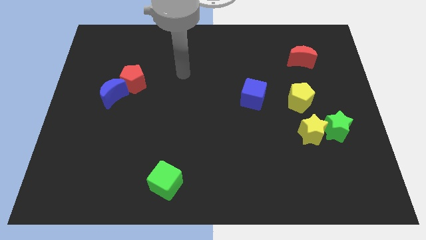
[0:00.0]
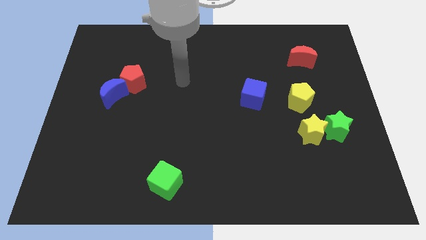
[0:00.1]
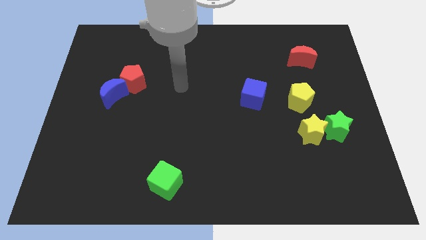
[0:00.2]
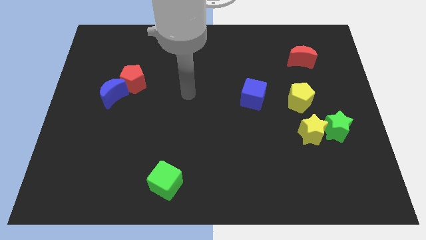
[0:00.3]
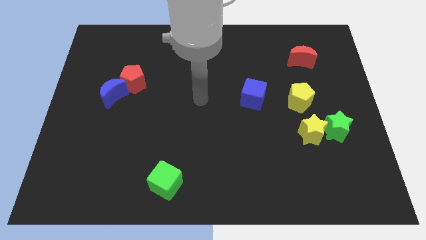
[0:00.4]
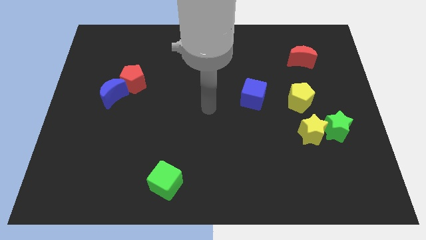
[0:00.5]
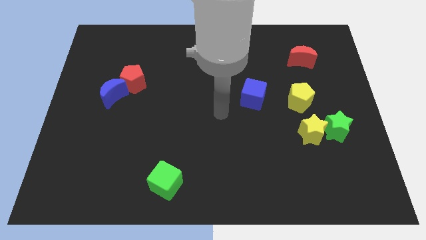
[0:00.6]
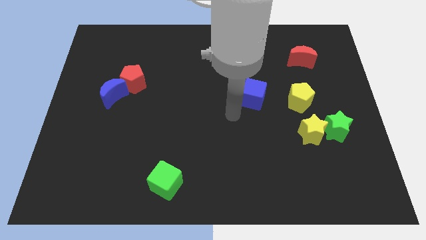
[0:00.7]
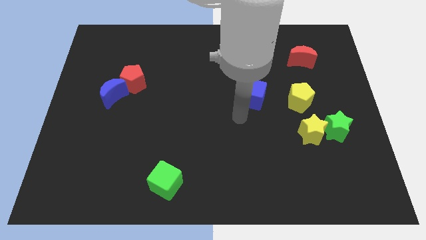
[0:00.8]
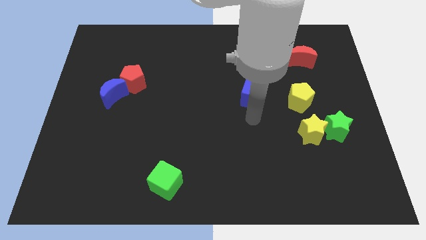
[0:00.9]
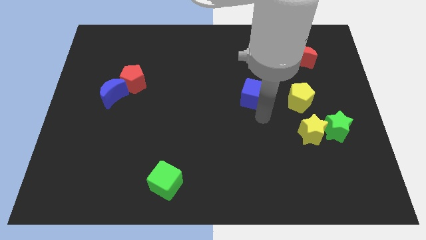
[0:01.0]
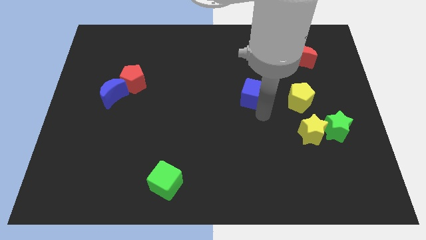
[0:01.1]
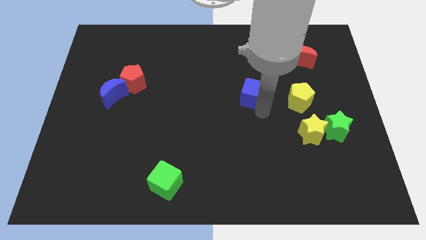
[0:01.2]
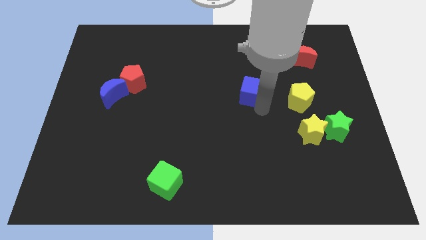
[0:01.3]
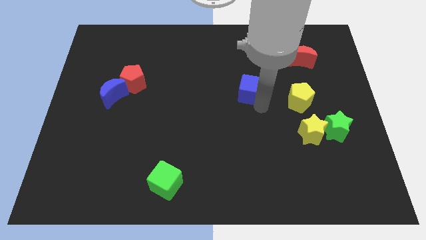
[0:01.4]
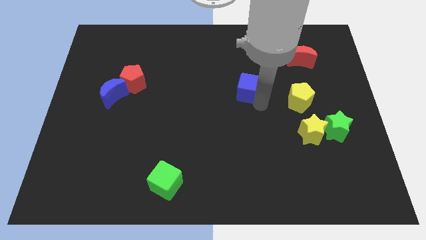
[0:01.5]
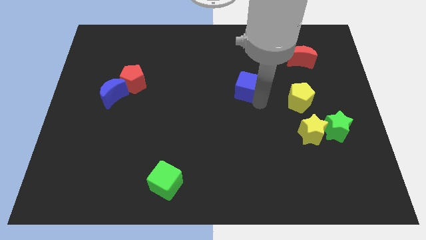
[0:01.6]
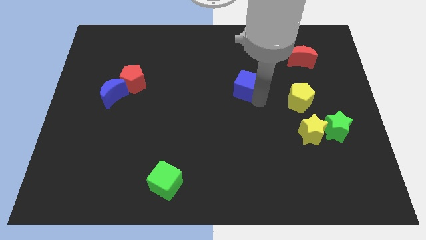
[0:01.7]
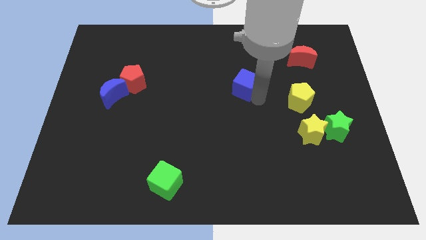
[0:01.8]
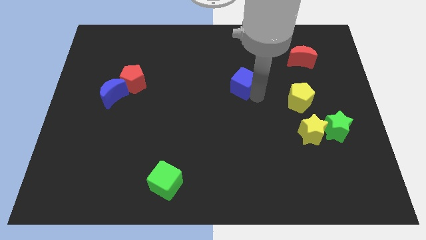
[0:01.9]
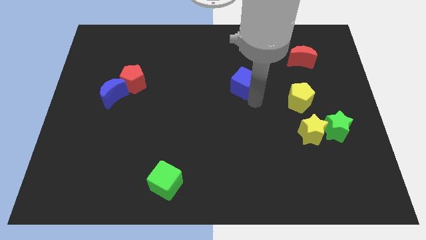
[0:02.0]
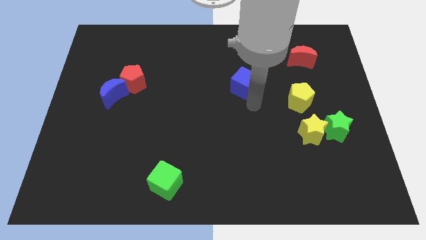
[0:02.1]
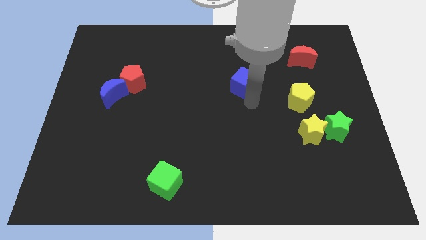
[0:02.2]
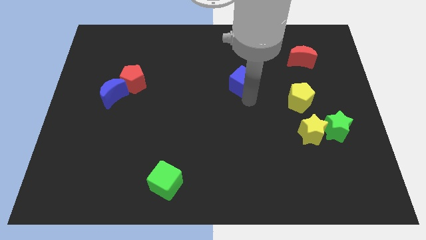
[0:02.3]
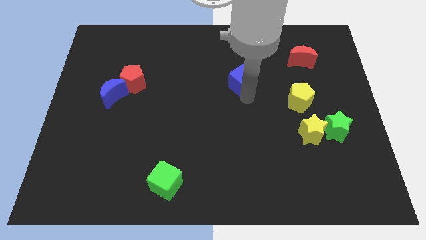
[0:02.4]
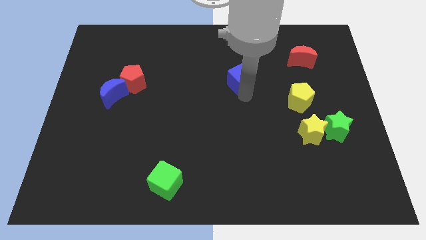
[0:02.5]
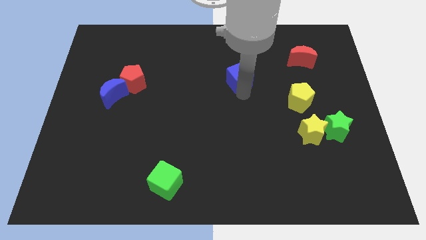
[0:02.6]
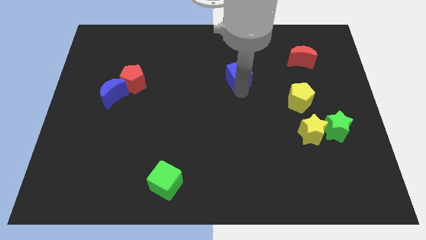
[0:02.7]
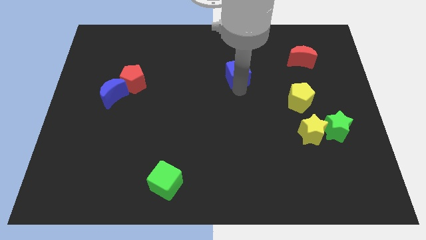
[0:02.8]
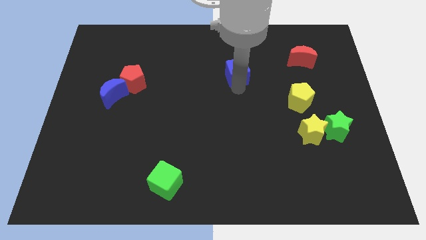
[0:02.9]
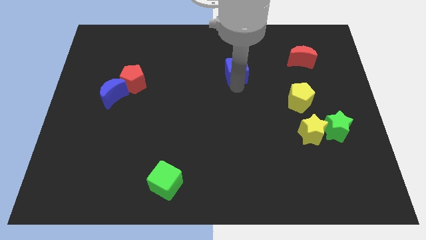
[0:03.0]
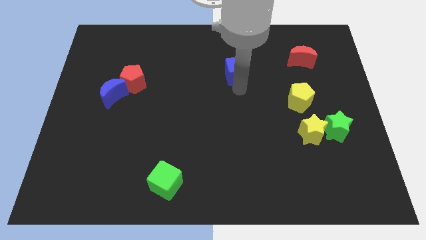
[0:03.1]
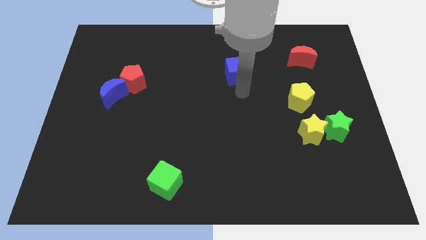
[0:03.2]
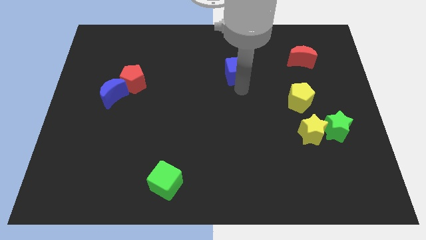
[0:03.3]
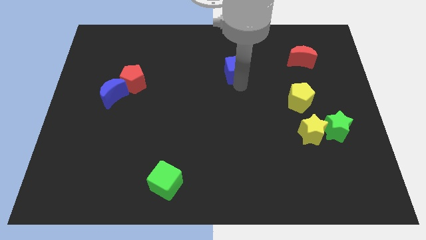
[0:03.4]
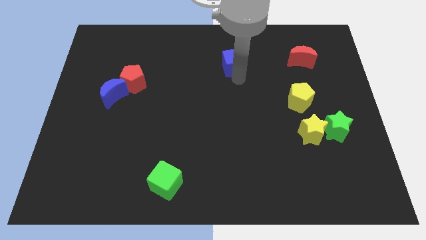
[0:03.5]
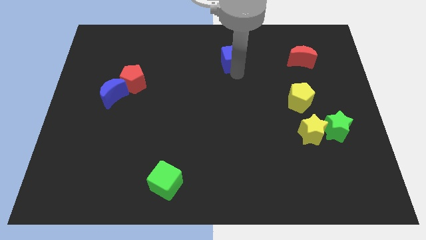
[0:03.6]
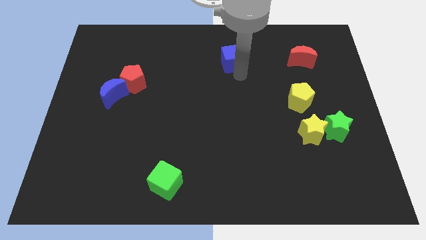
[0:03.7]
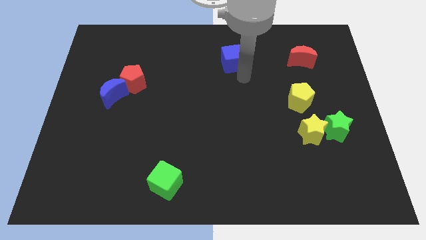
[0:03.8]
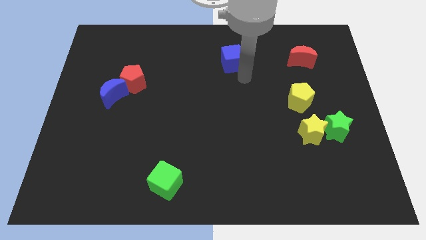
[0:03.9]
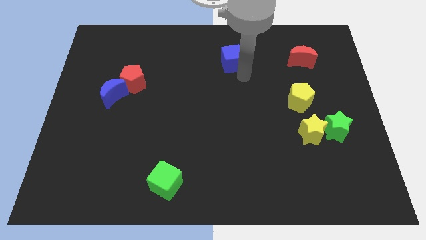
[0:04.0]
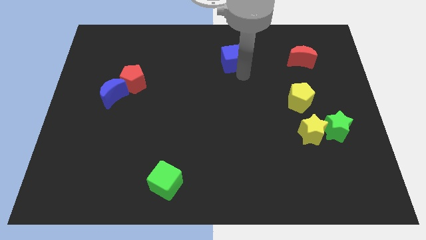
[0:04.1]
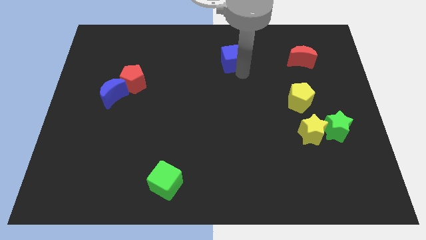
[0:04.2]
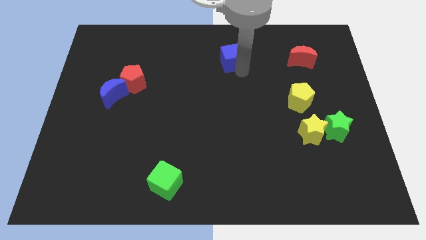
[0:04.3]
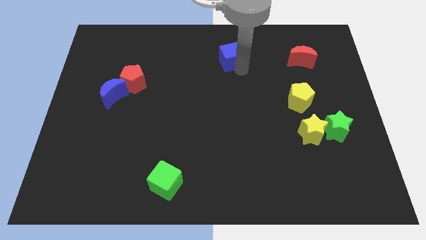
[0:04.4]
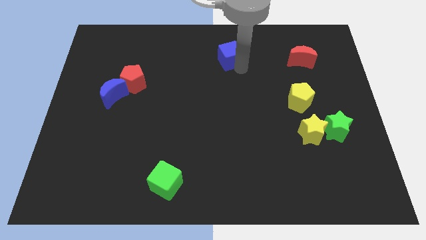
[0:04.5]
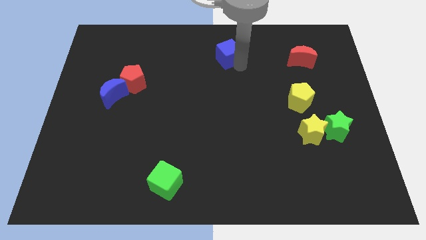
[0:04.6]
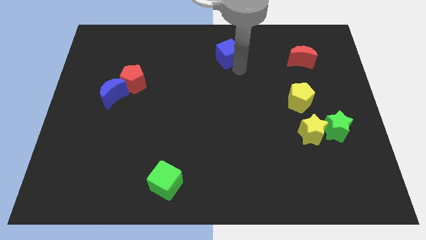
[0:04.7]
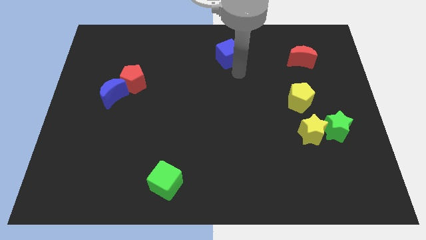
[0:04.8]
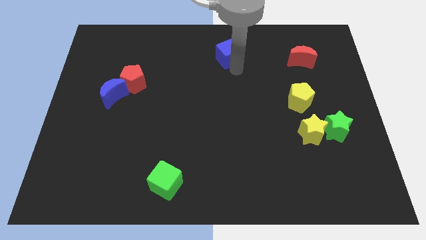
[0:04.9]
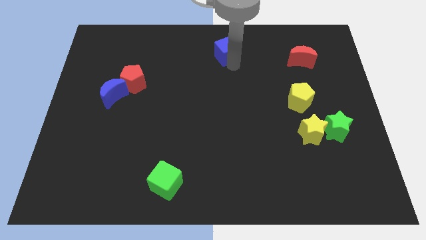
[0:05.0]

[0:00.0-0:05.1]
slide the blue cube to the top
